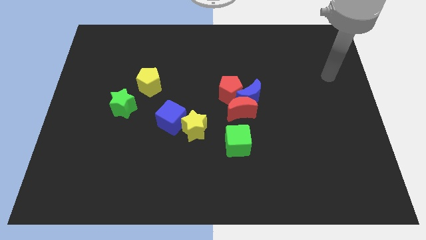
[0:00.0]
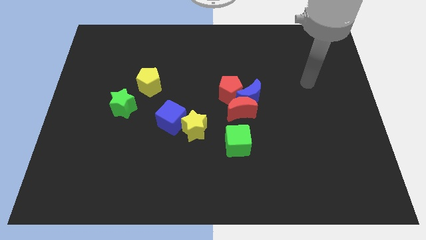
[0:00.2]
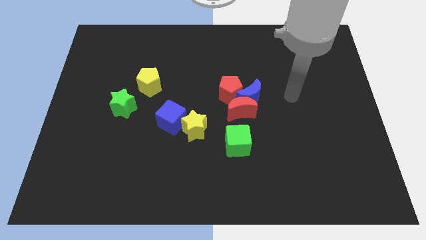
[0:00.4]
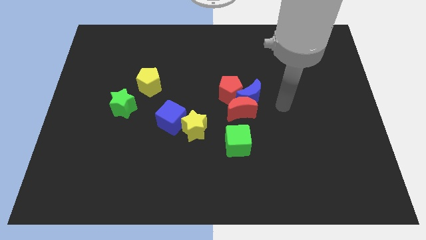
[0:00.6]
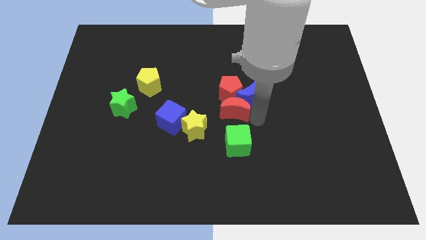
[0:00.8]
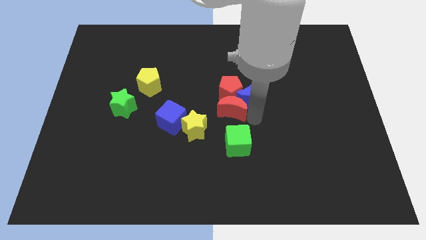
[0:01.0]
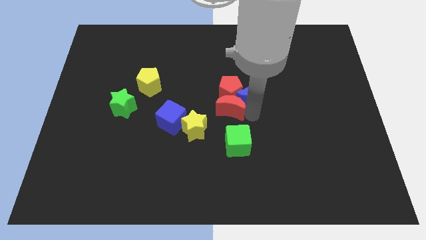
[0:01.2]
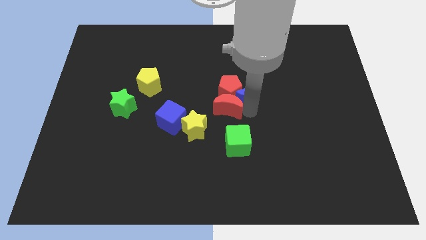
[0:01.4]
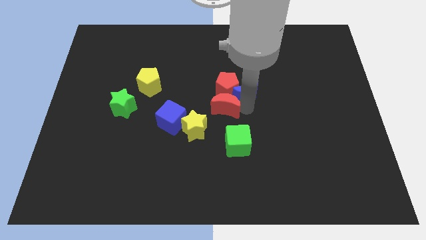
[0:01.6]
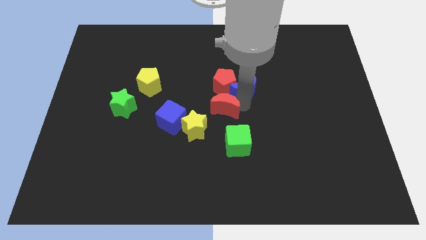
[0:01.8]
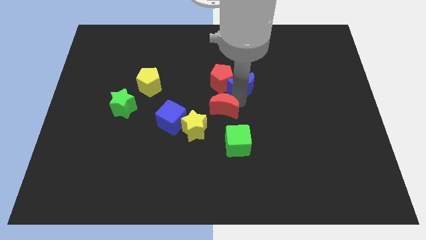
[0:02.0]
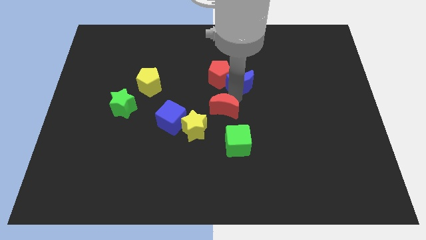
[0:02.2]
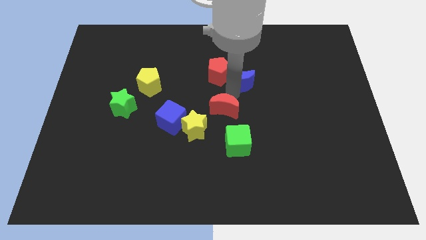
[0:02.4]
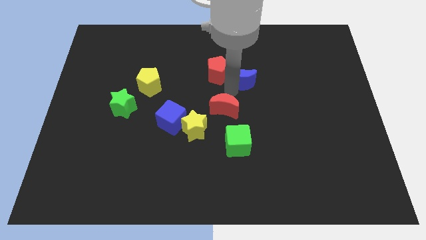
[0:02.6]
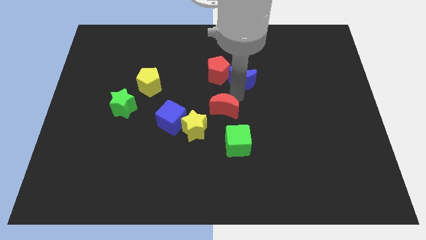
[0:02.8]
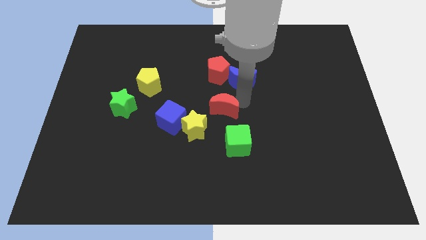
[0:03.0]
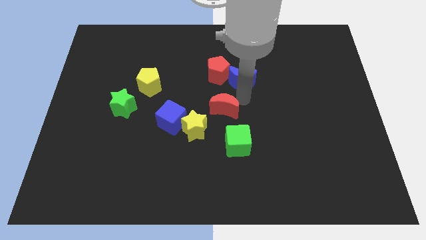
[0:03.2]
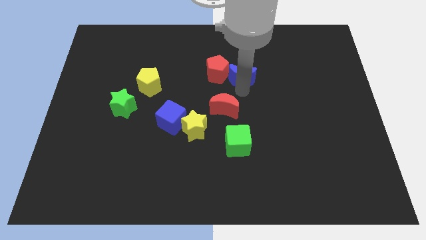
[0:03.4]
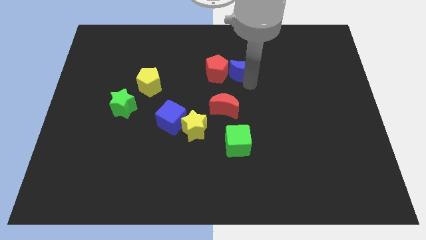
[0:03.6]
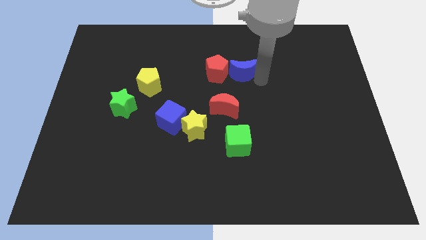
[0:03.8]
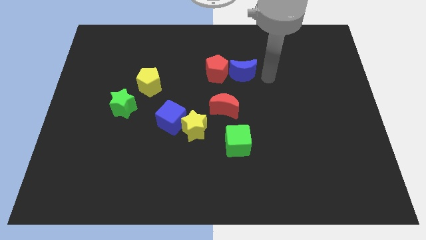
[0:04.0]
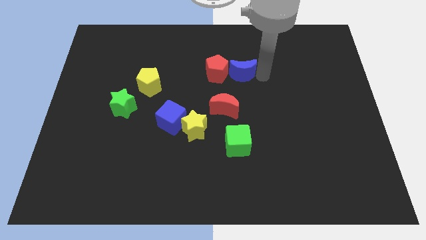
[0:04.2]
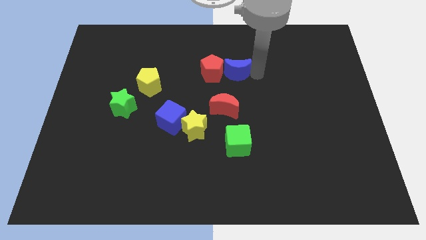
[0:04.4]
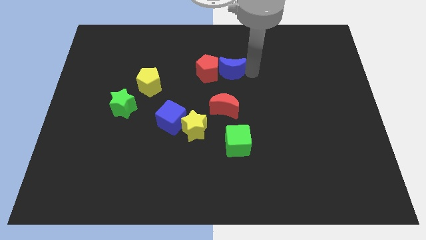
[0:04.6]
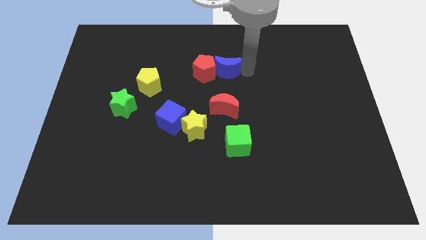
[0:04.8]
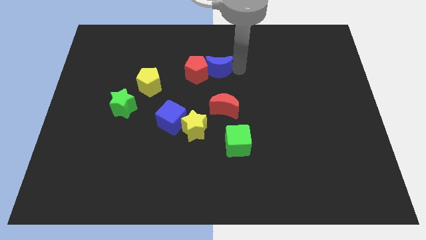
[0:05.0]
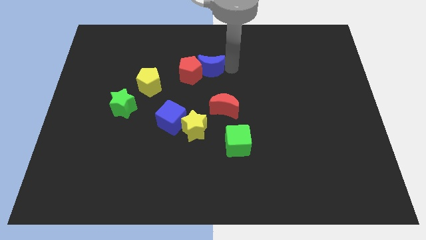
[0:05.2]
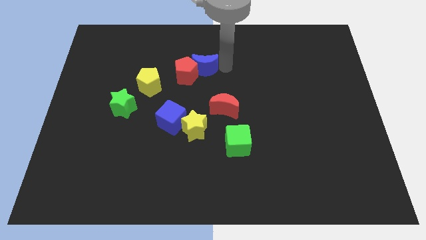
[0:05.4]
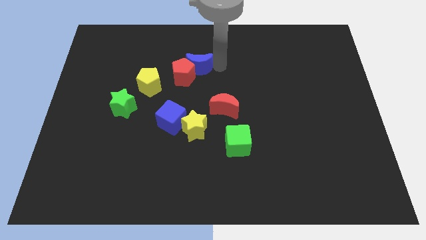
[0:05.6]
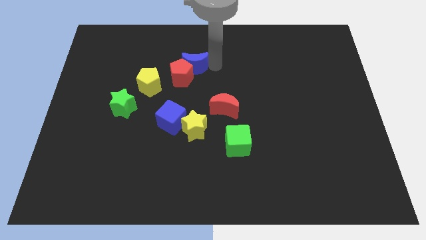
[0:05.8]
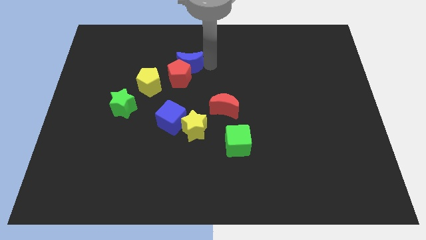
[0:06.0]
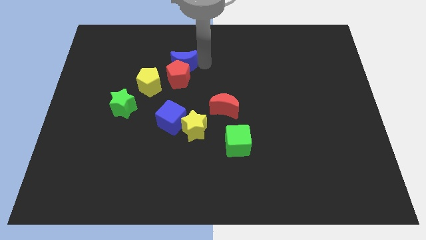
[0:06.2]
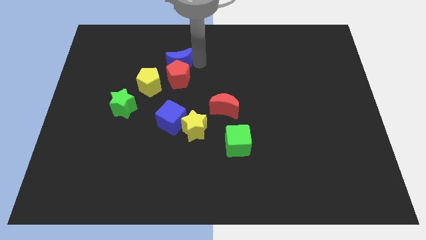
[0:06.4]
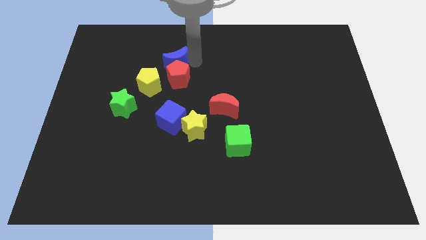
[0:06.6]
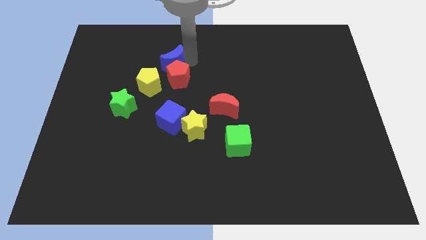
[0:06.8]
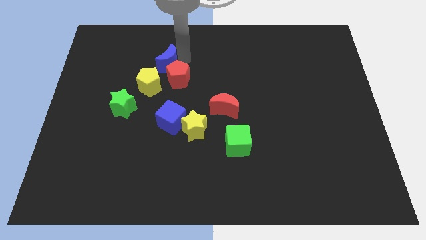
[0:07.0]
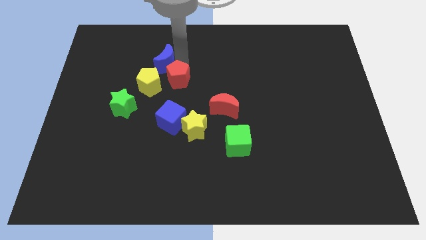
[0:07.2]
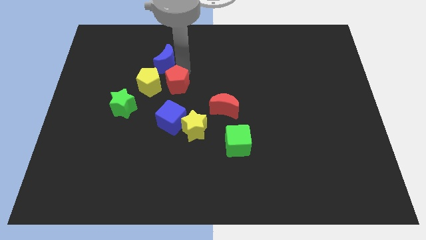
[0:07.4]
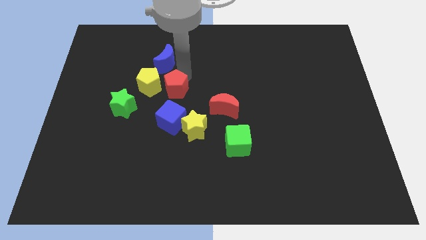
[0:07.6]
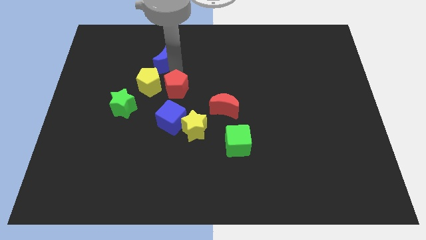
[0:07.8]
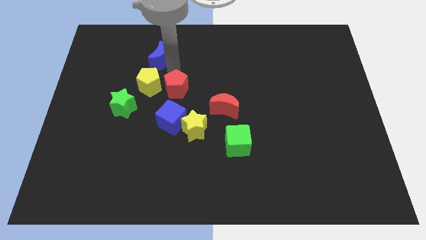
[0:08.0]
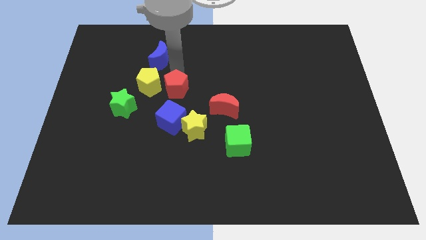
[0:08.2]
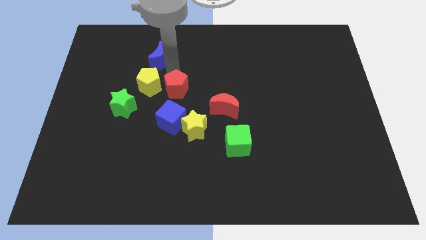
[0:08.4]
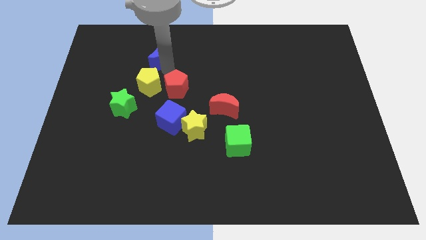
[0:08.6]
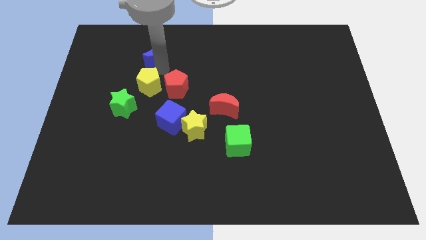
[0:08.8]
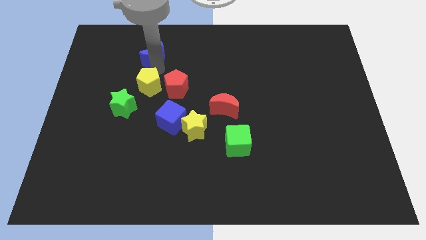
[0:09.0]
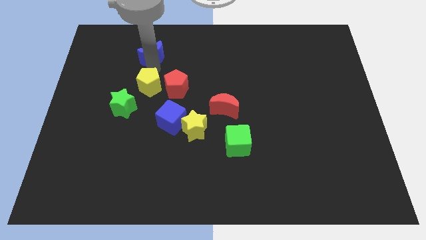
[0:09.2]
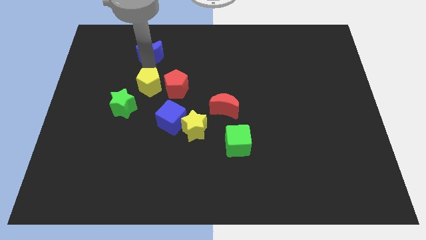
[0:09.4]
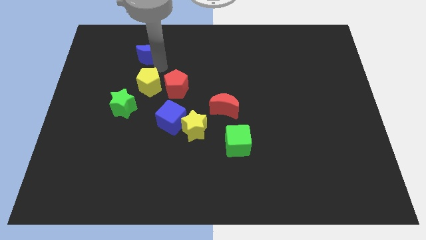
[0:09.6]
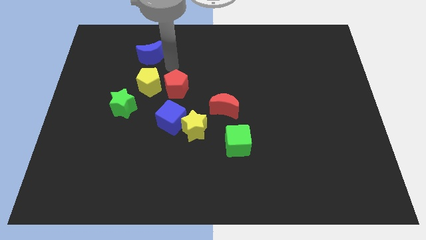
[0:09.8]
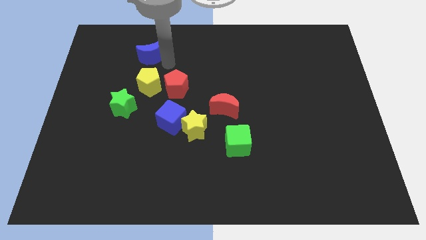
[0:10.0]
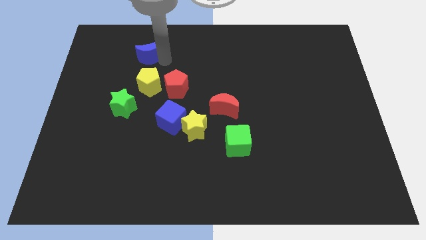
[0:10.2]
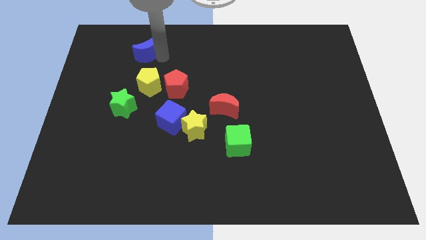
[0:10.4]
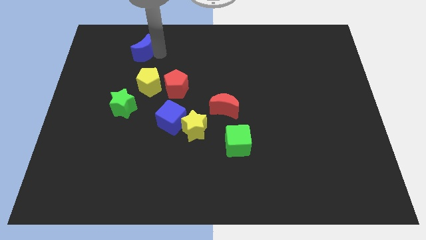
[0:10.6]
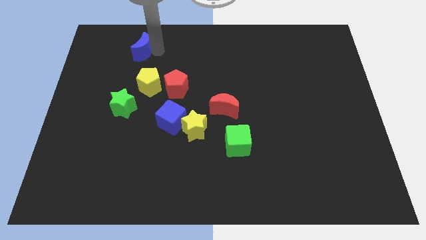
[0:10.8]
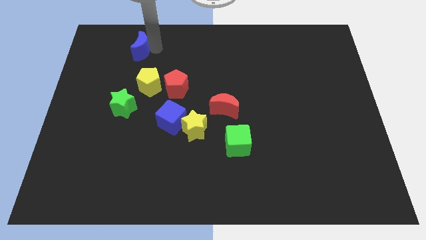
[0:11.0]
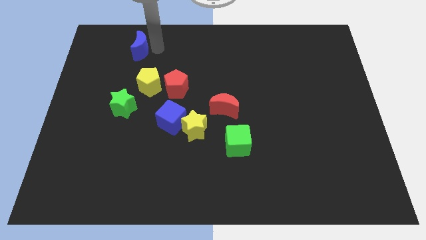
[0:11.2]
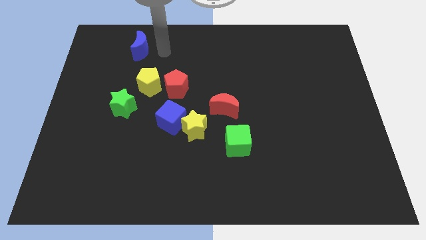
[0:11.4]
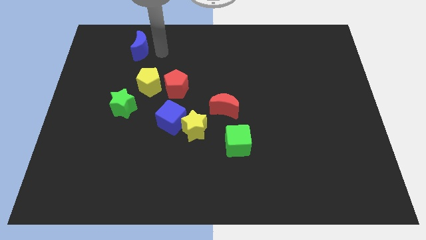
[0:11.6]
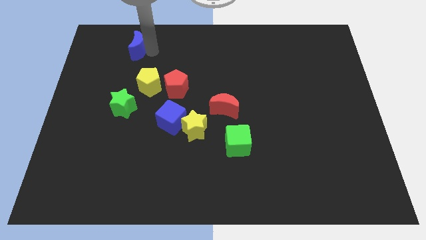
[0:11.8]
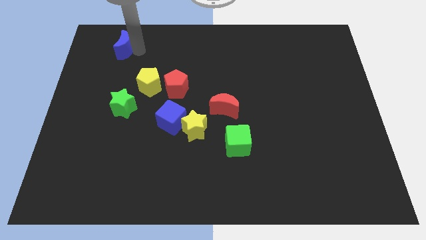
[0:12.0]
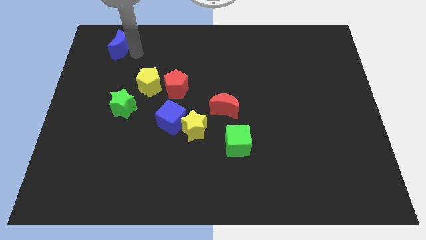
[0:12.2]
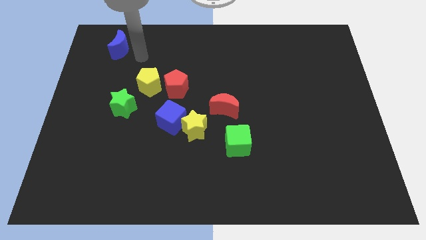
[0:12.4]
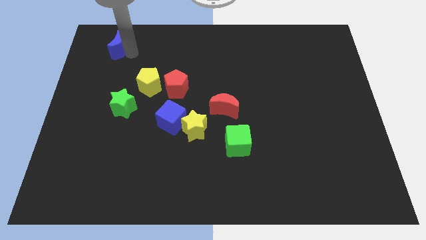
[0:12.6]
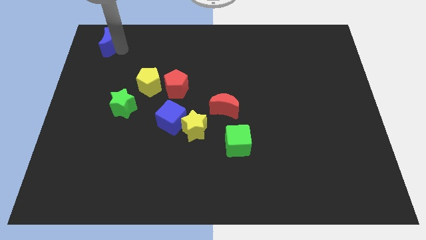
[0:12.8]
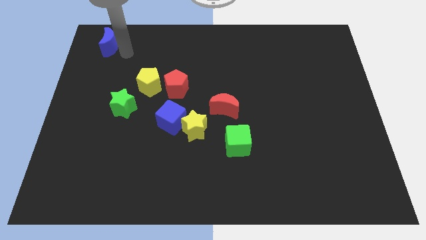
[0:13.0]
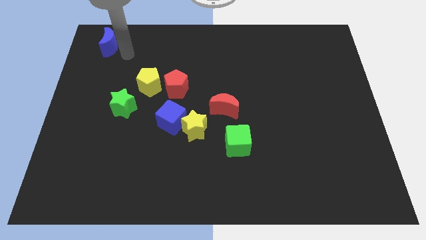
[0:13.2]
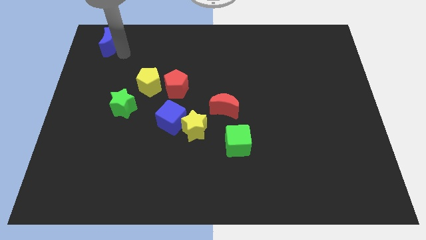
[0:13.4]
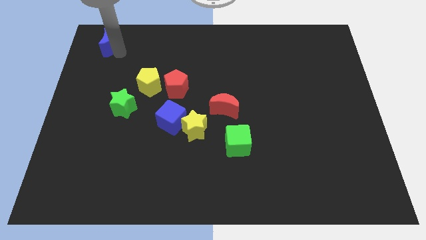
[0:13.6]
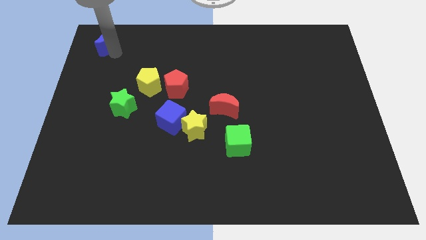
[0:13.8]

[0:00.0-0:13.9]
push the blue moon to the top left
